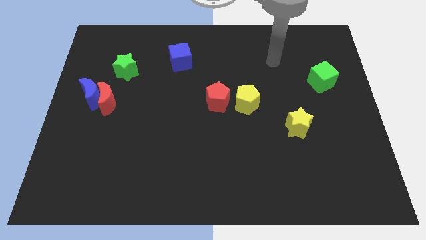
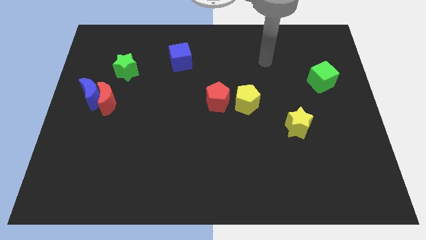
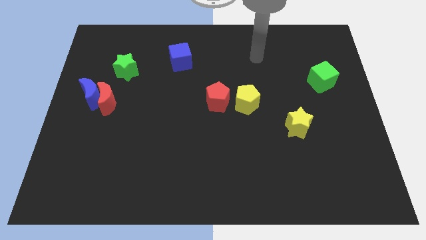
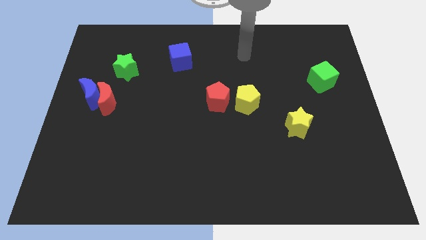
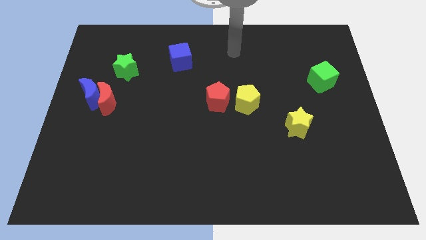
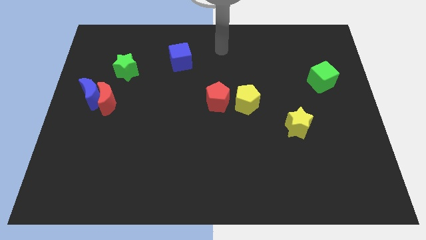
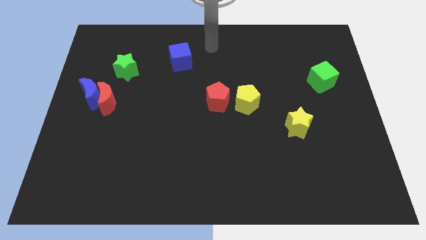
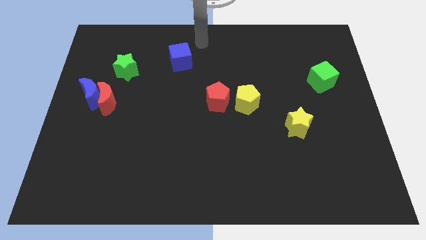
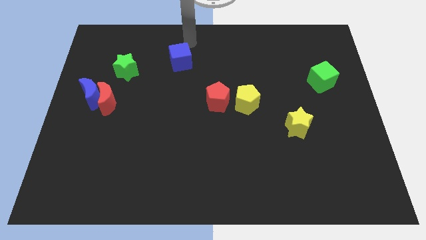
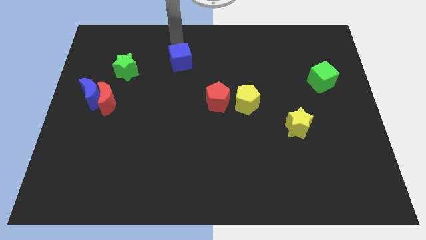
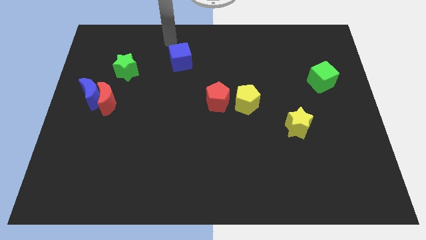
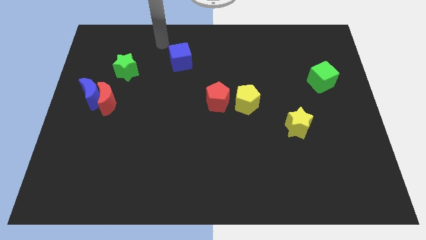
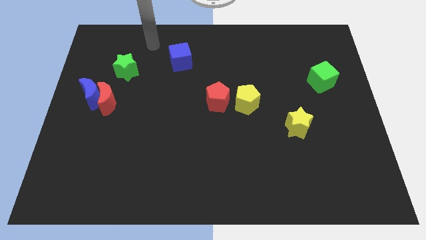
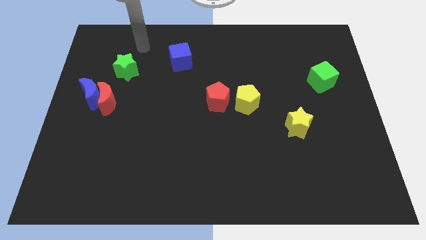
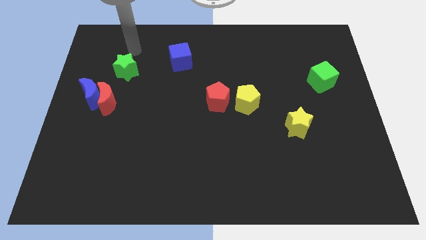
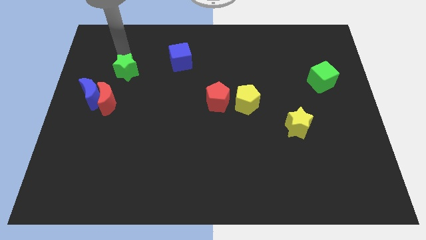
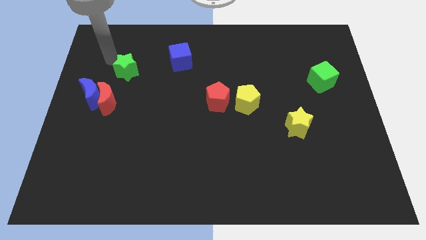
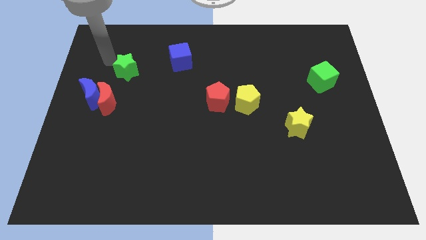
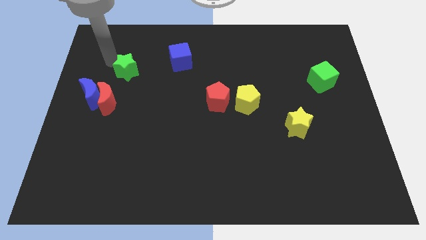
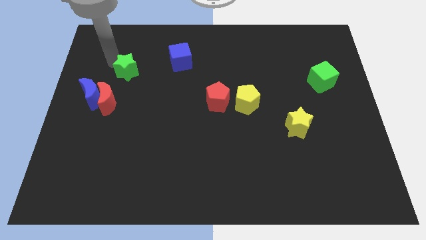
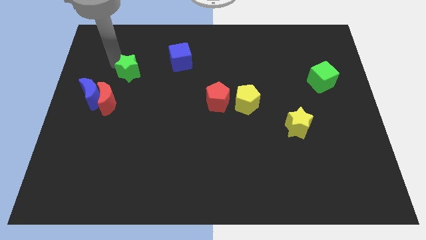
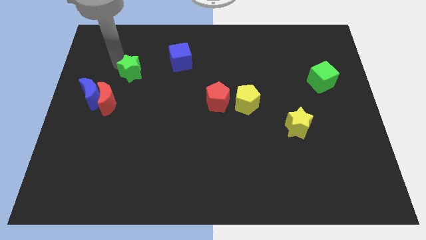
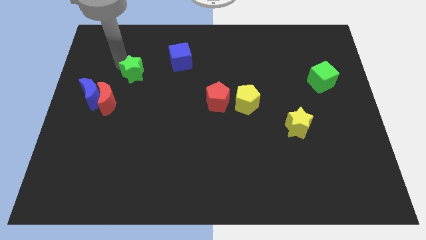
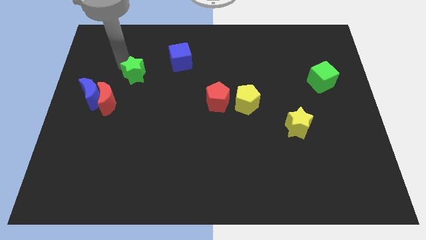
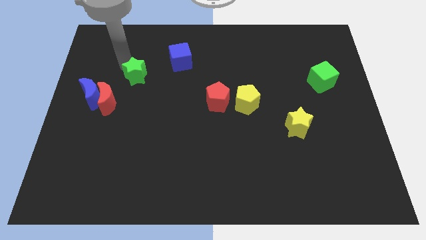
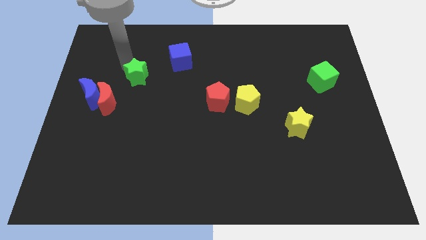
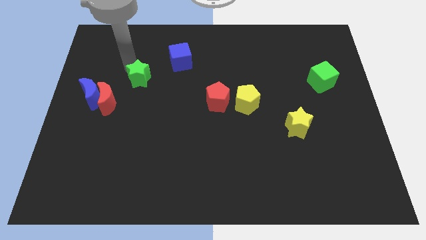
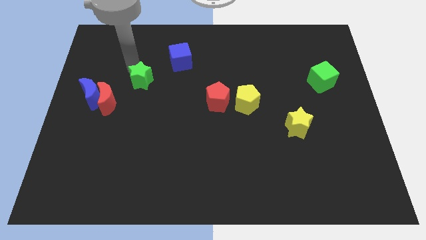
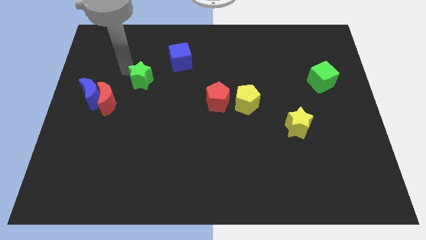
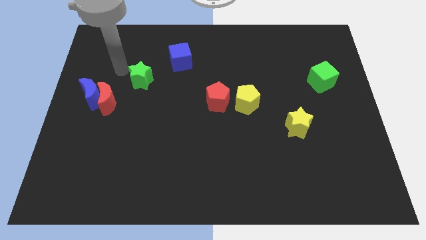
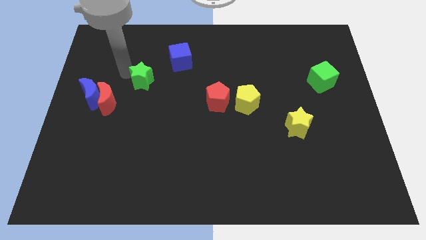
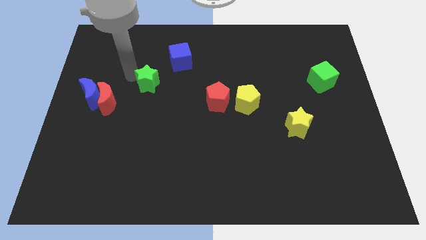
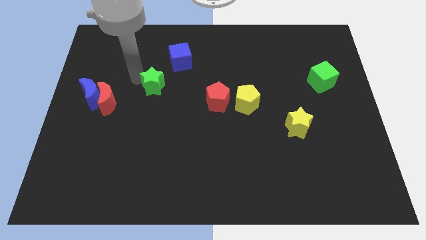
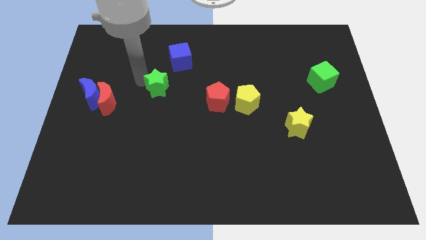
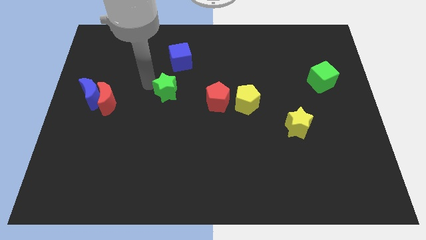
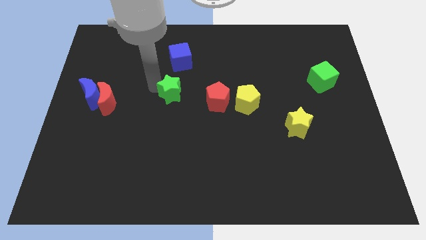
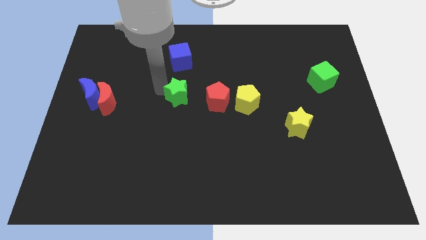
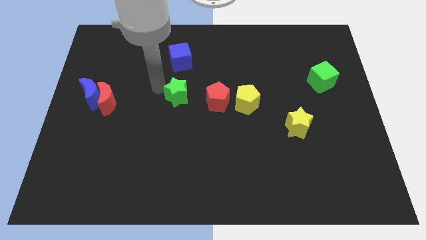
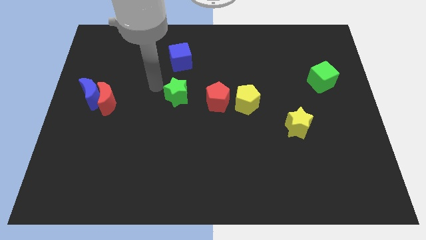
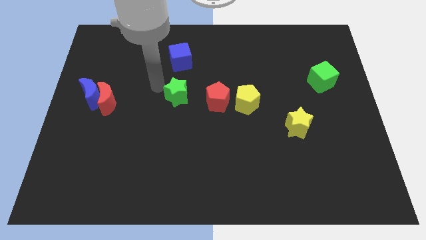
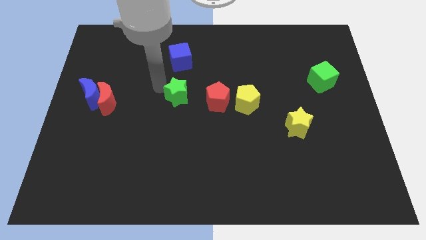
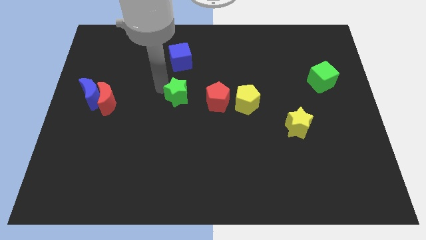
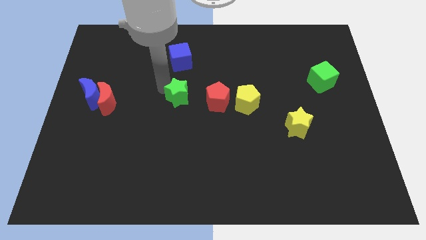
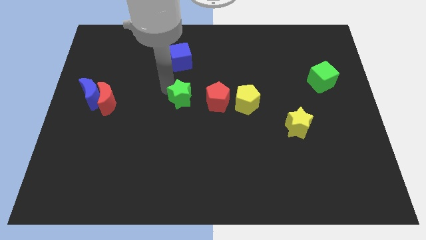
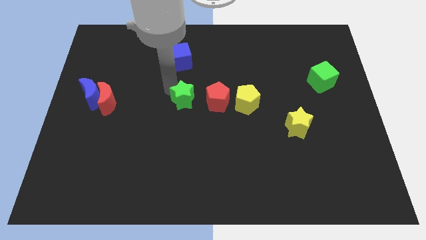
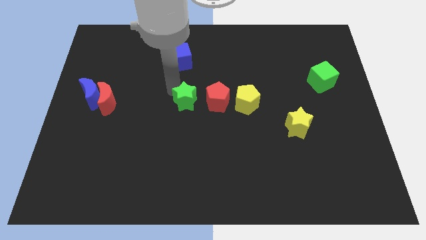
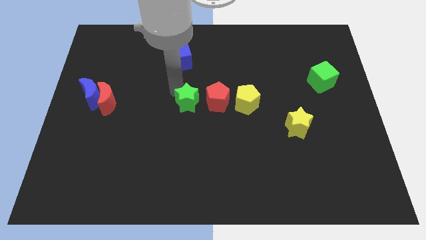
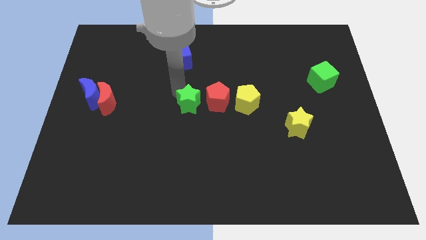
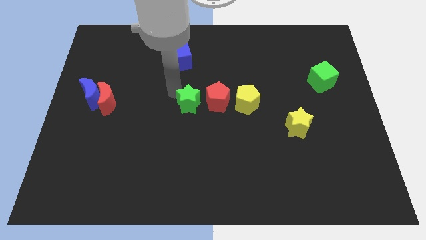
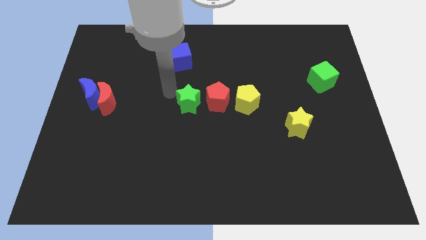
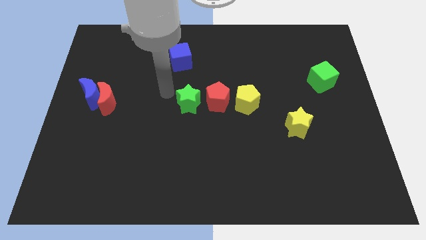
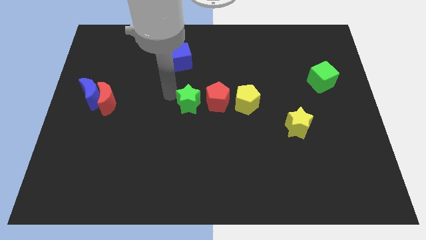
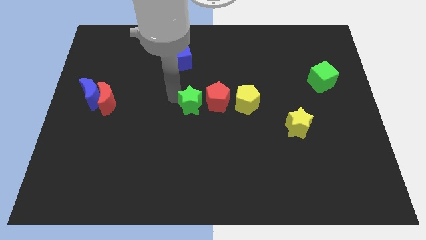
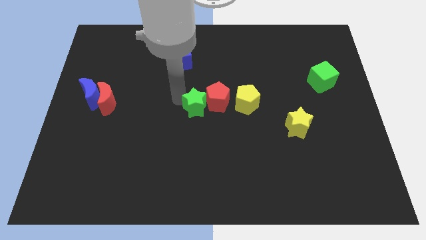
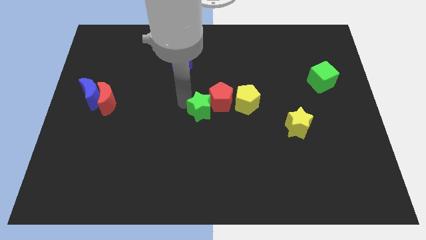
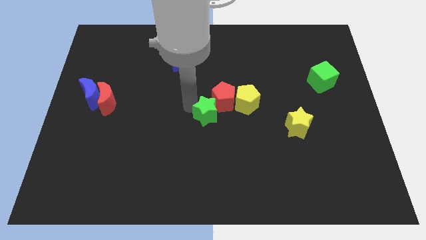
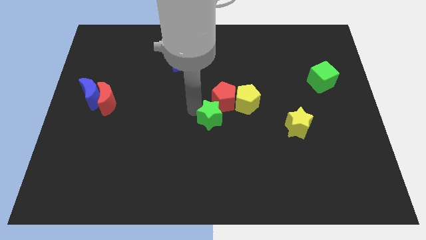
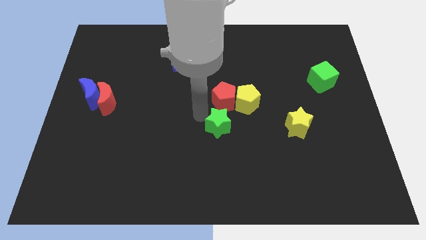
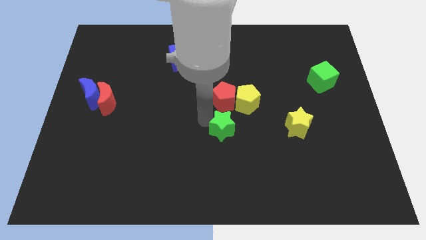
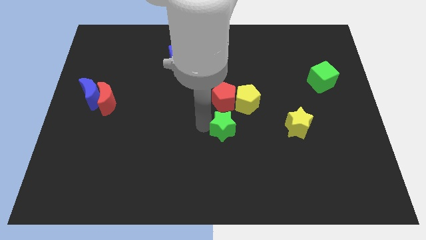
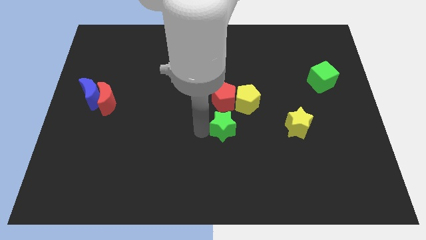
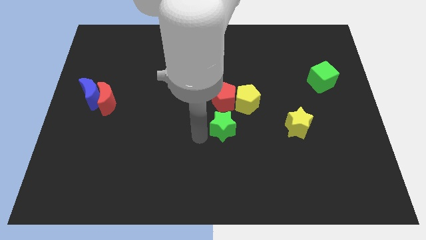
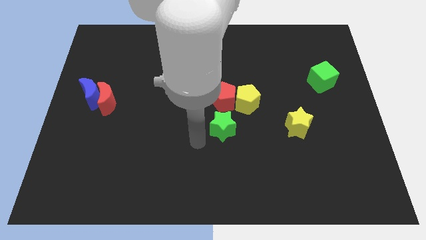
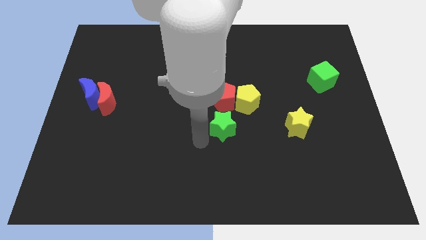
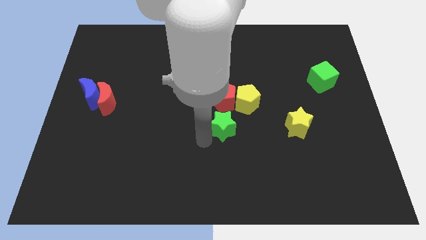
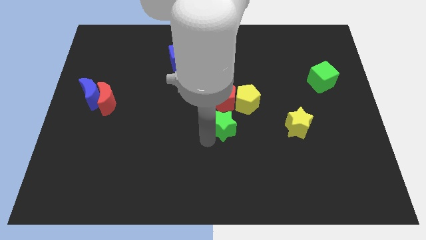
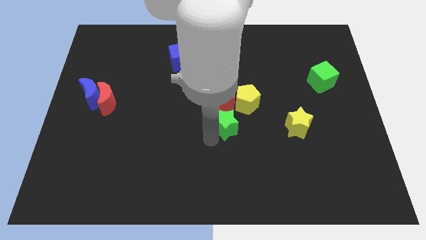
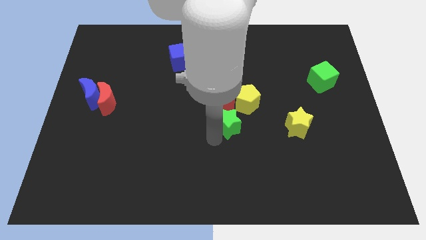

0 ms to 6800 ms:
push the green star diagonally down and to the right of the red pentagon

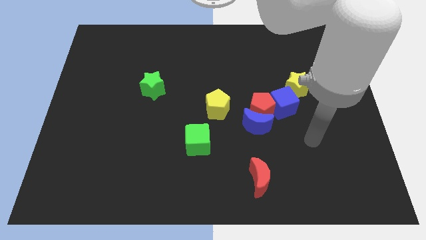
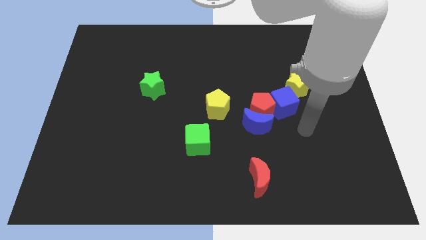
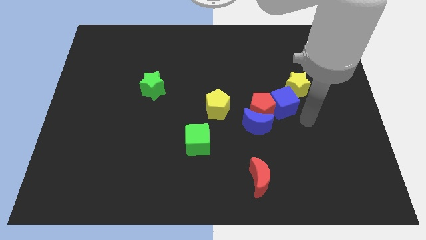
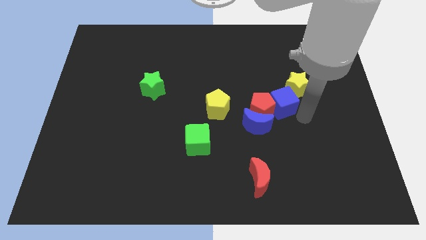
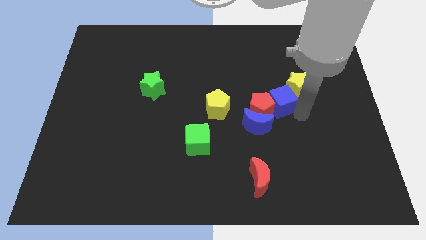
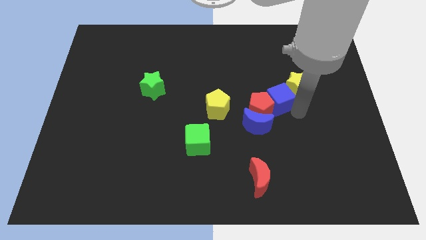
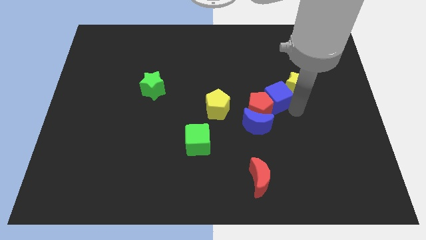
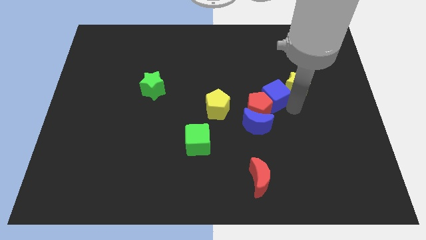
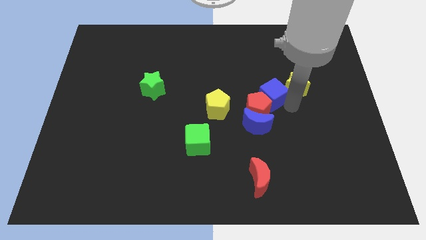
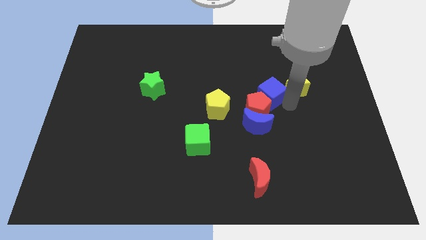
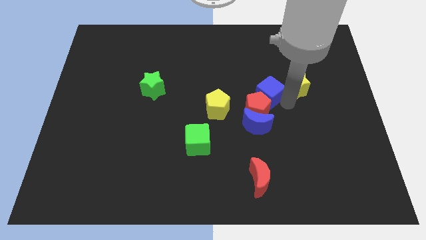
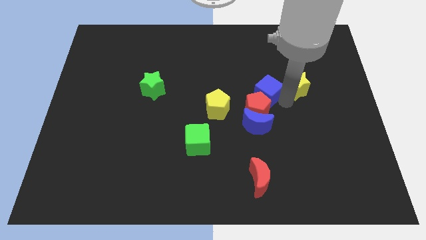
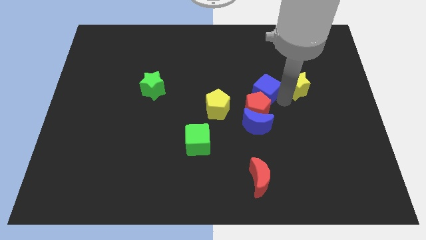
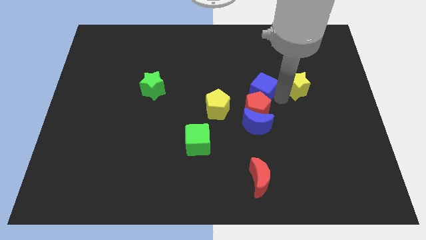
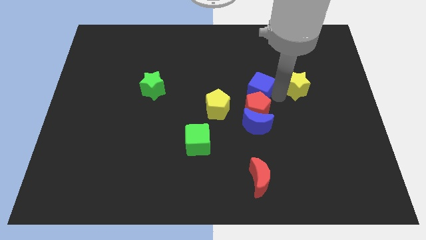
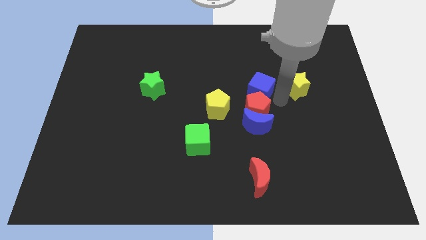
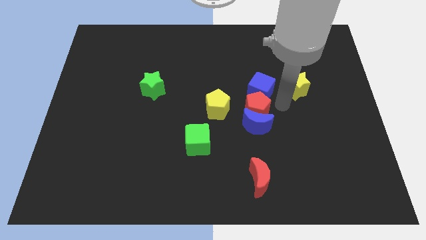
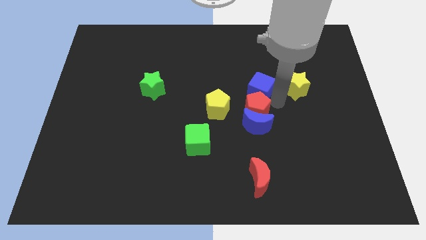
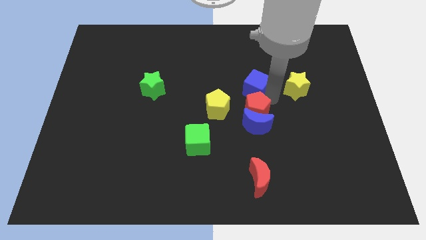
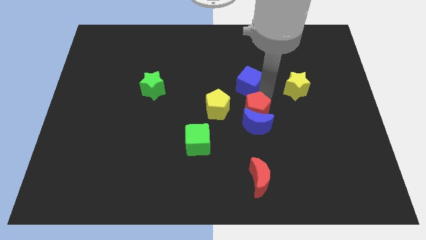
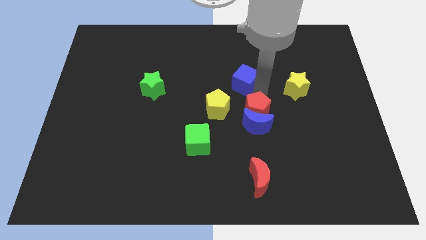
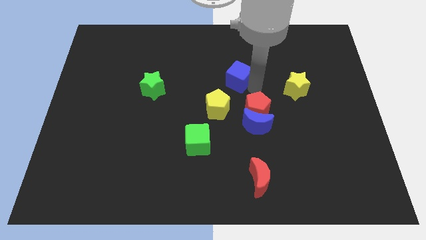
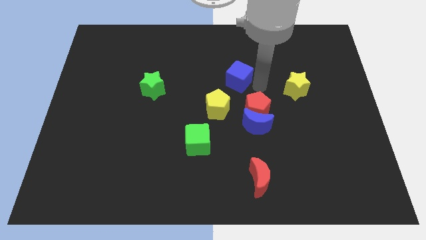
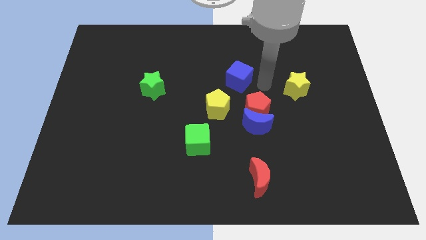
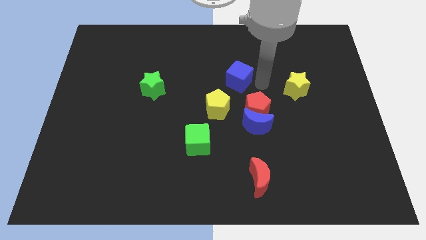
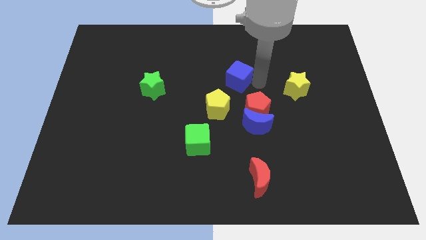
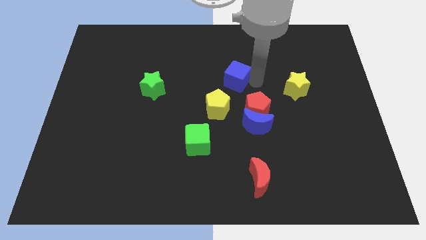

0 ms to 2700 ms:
move the blue cube above the yellow pentagon
